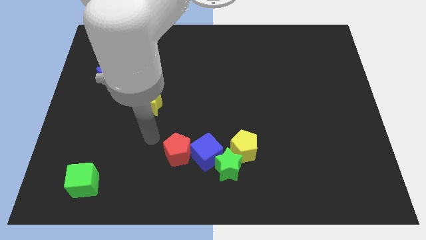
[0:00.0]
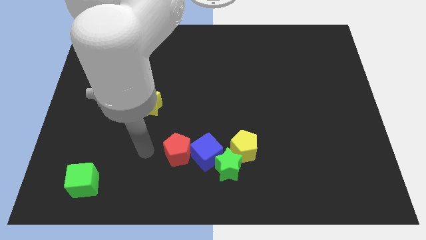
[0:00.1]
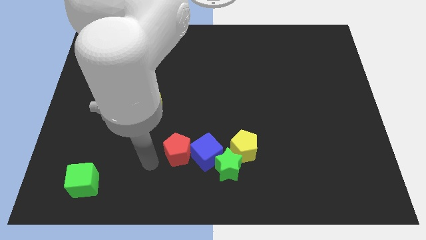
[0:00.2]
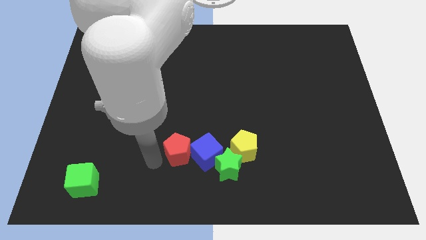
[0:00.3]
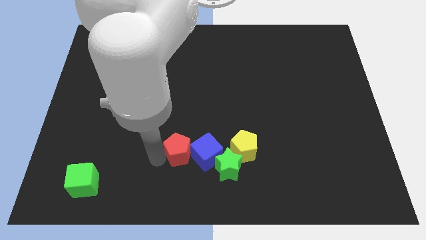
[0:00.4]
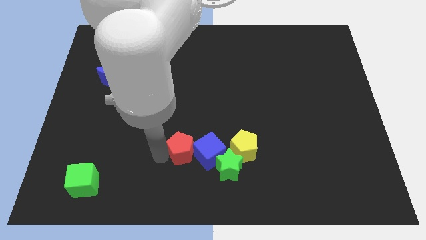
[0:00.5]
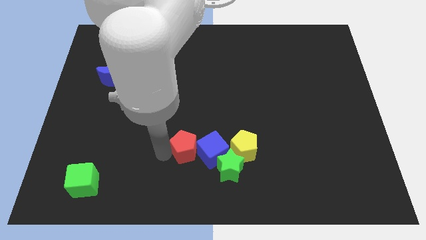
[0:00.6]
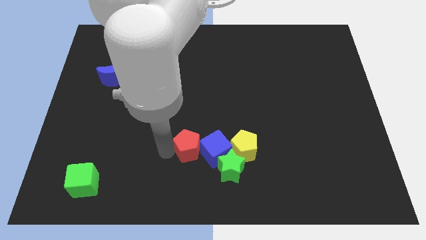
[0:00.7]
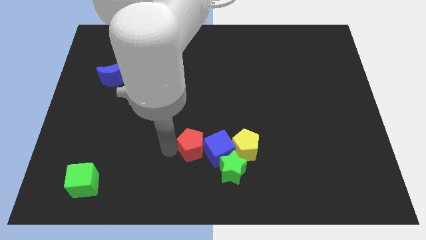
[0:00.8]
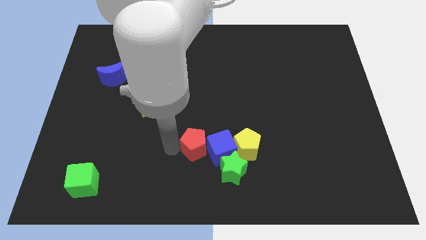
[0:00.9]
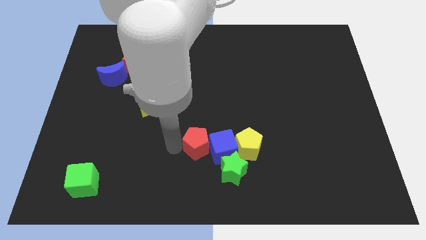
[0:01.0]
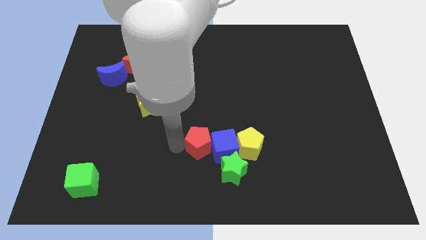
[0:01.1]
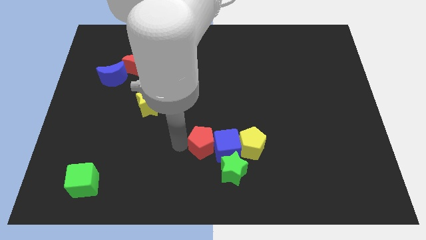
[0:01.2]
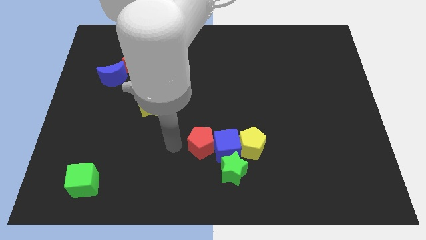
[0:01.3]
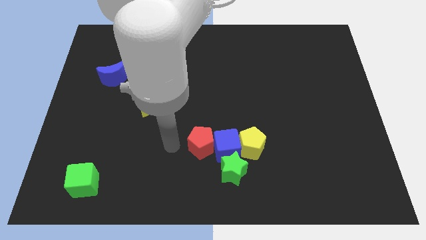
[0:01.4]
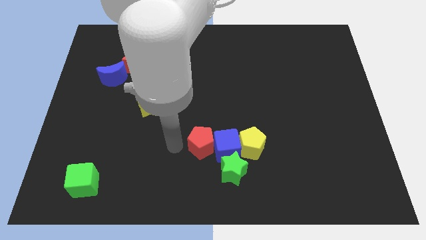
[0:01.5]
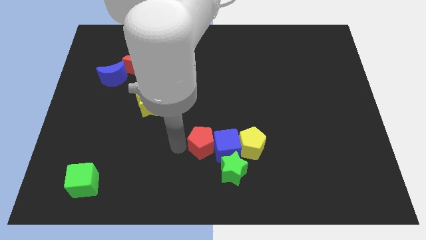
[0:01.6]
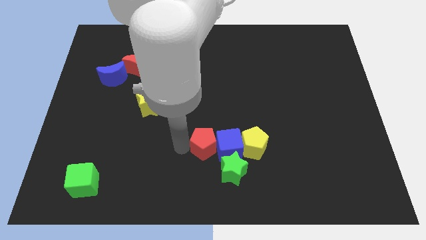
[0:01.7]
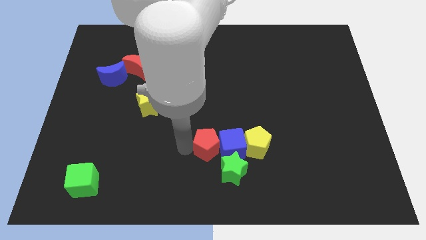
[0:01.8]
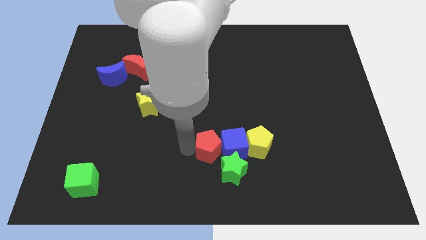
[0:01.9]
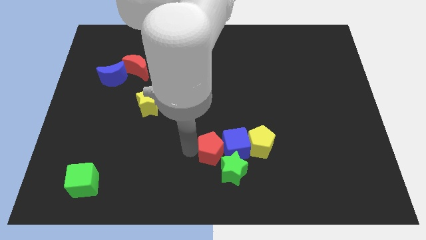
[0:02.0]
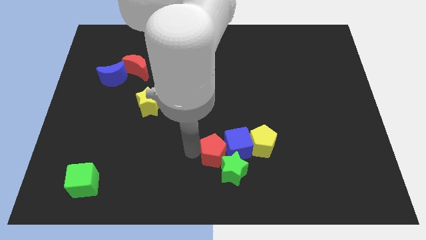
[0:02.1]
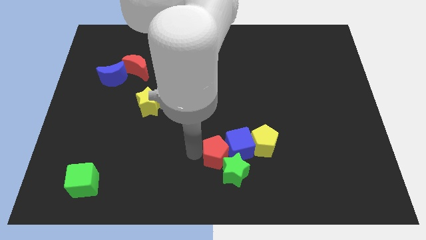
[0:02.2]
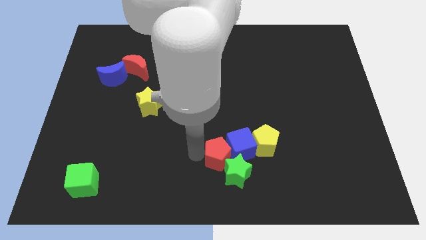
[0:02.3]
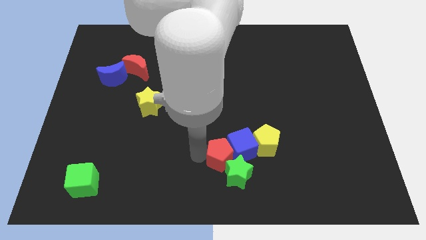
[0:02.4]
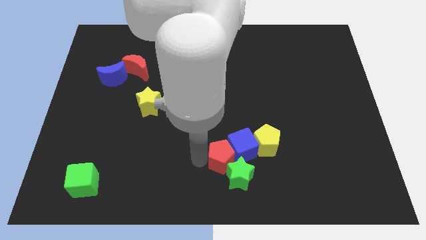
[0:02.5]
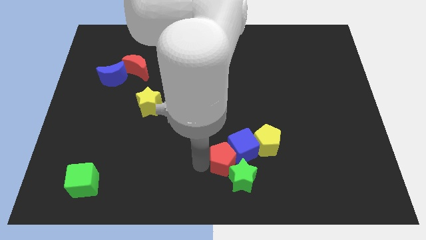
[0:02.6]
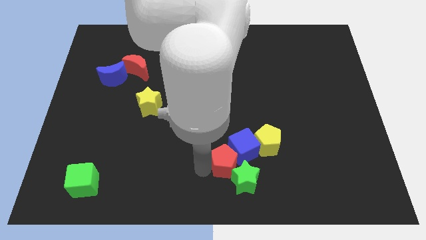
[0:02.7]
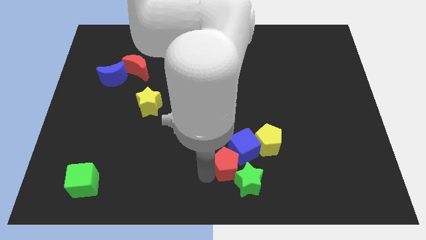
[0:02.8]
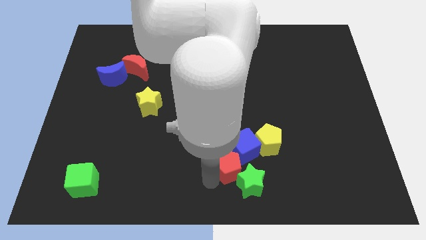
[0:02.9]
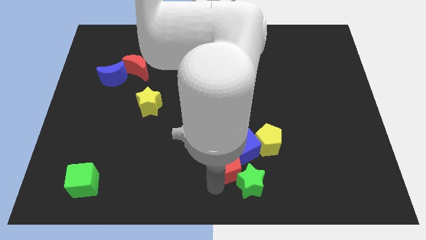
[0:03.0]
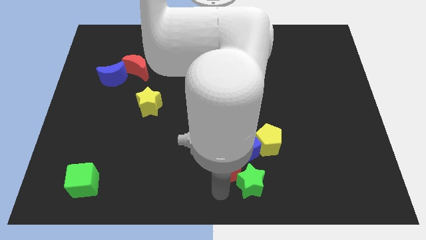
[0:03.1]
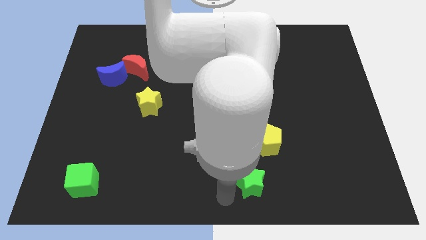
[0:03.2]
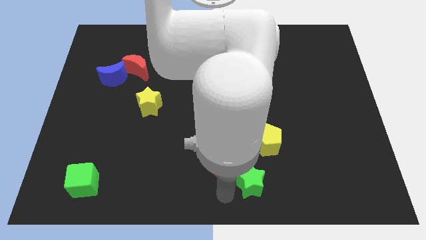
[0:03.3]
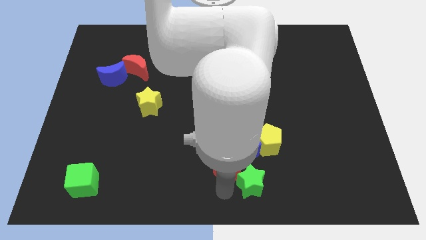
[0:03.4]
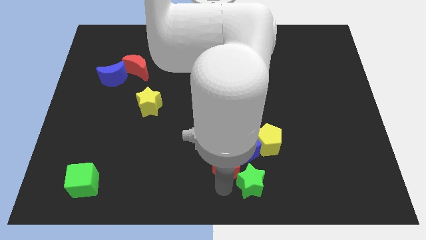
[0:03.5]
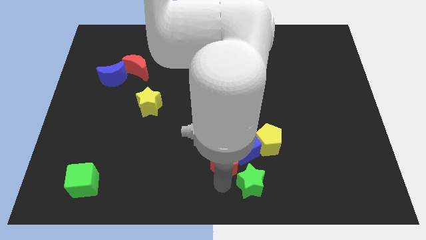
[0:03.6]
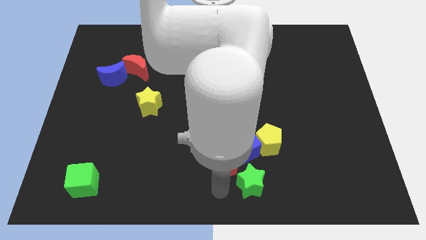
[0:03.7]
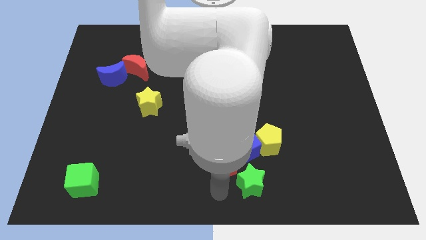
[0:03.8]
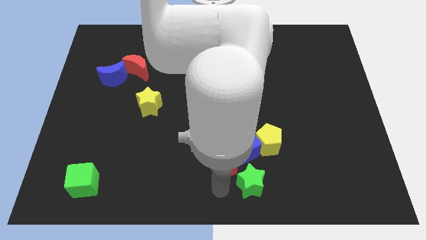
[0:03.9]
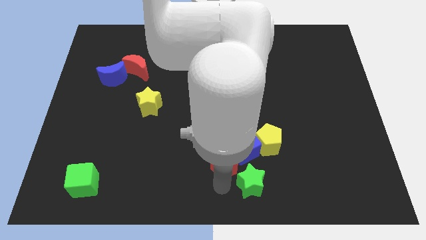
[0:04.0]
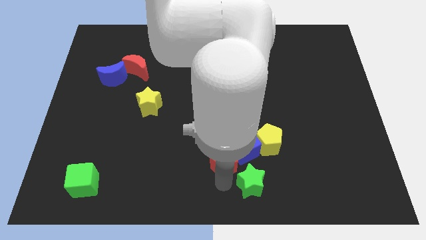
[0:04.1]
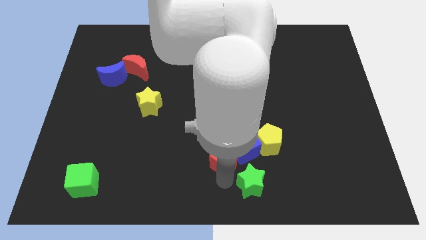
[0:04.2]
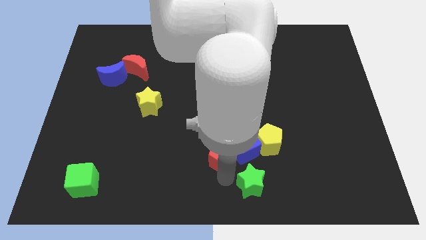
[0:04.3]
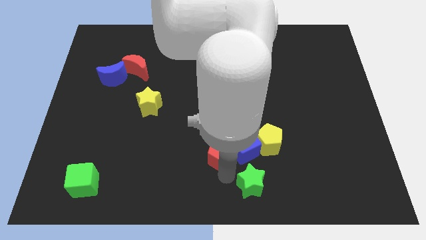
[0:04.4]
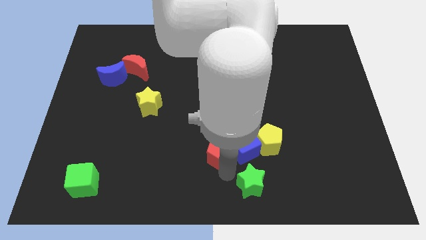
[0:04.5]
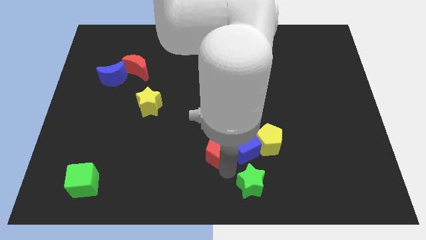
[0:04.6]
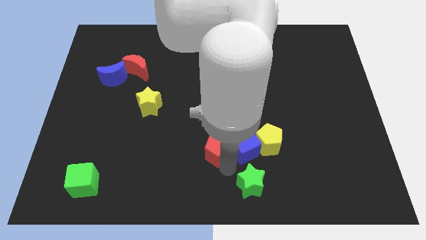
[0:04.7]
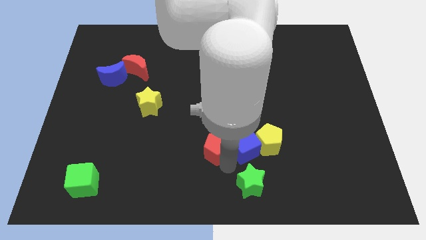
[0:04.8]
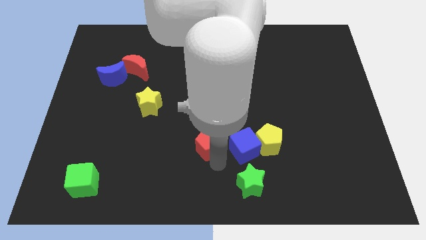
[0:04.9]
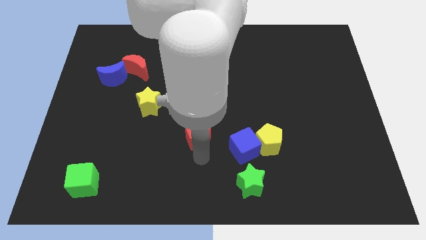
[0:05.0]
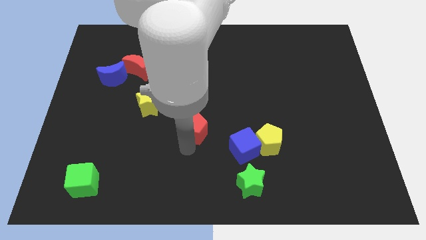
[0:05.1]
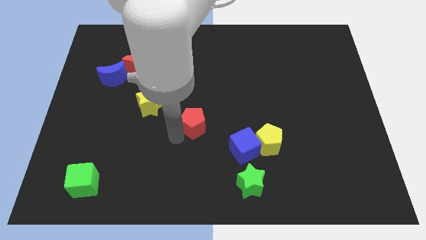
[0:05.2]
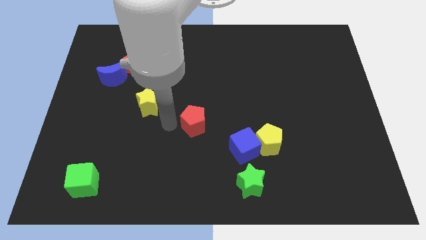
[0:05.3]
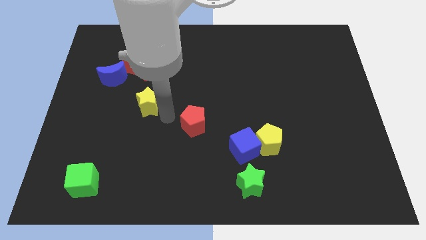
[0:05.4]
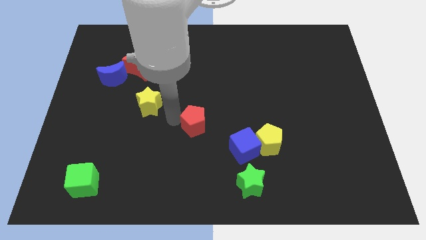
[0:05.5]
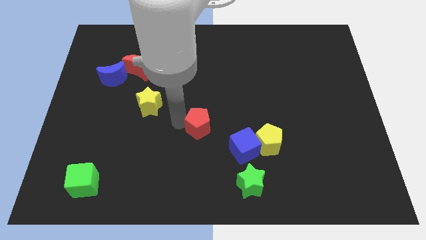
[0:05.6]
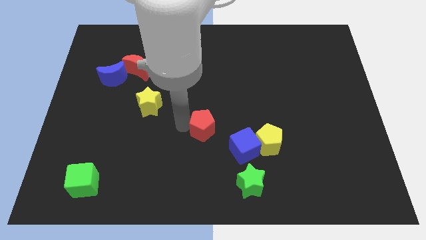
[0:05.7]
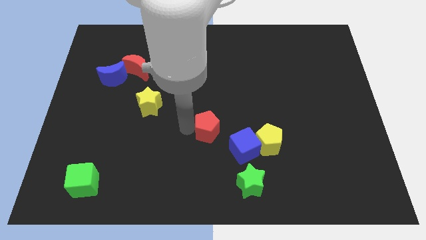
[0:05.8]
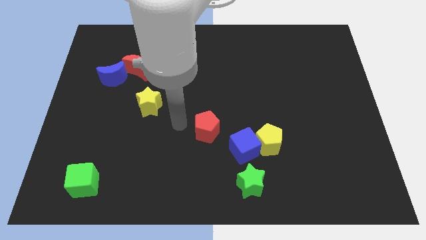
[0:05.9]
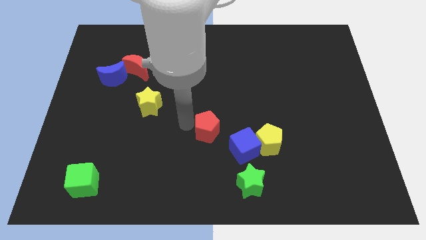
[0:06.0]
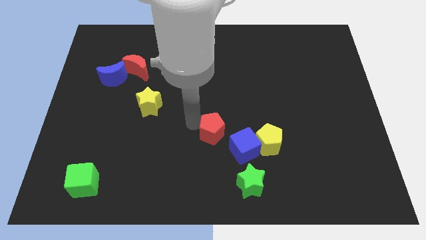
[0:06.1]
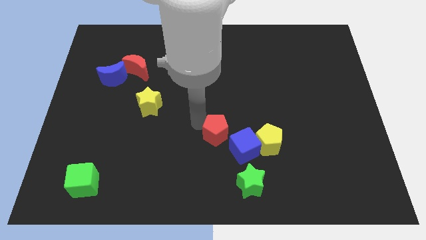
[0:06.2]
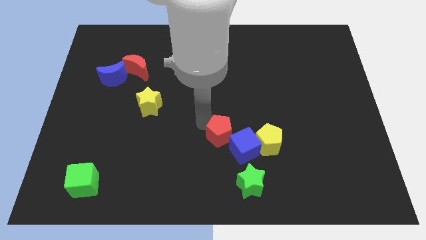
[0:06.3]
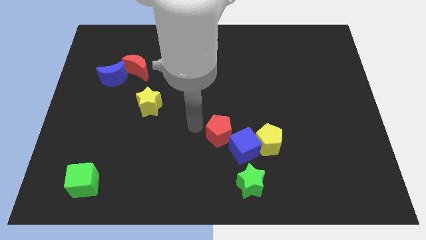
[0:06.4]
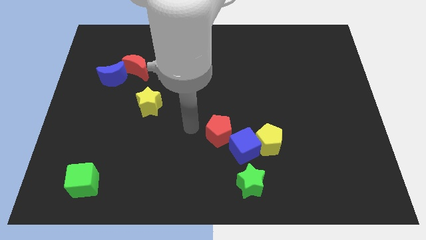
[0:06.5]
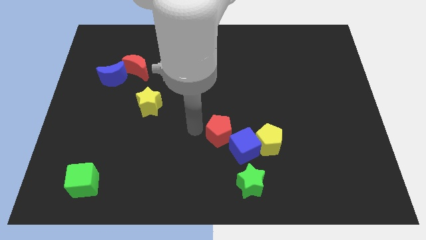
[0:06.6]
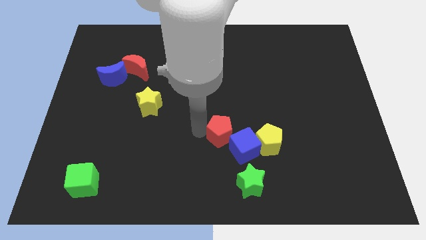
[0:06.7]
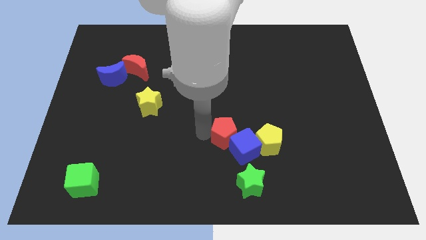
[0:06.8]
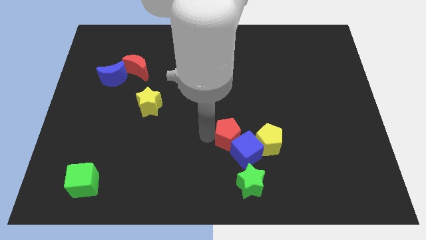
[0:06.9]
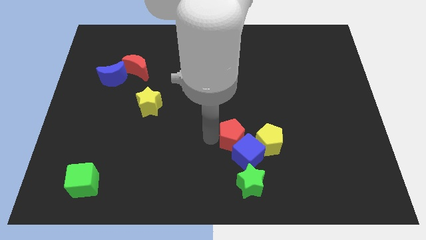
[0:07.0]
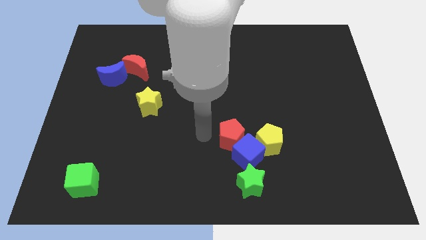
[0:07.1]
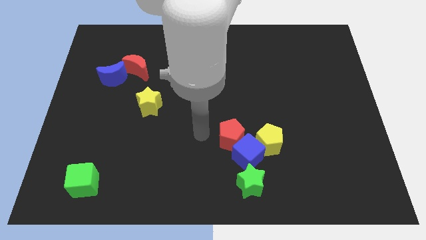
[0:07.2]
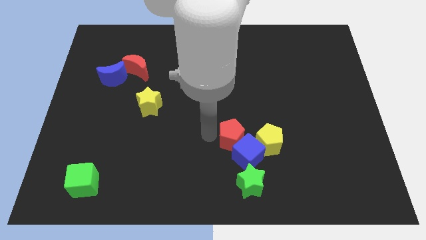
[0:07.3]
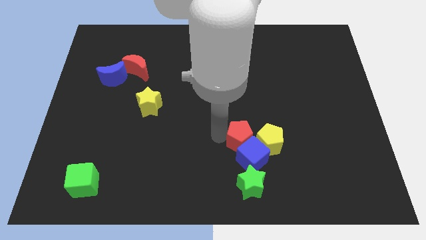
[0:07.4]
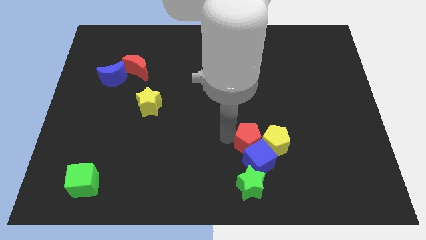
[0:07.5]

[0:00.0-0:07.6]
push the red pentagon towards the yellow pentagon

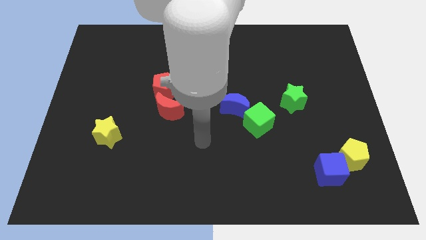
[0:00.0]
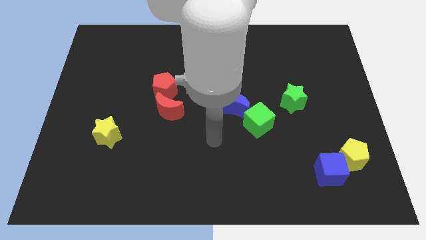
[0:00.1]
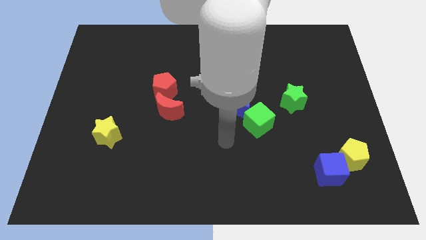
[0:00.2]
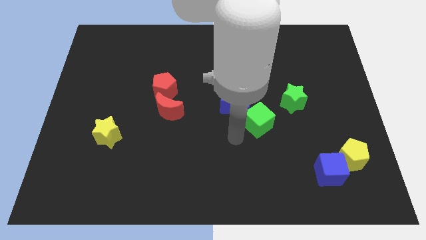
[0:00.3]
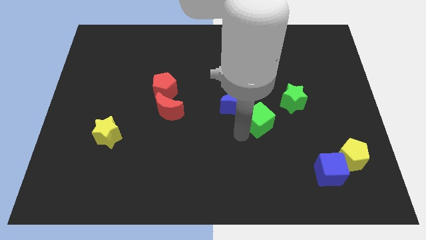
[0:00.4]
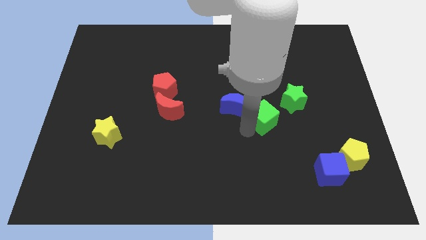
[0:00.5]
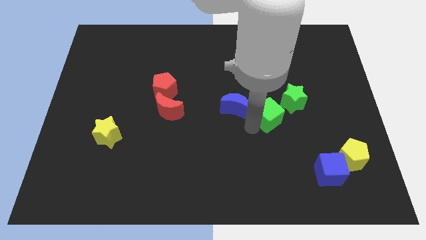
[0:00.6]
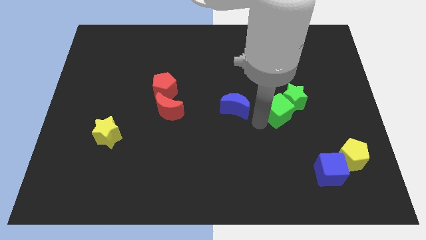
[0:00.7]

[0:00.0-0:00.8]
put the green cube next to the green star

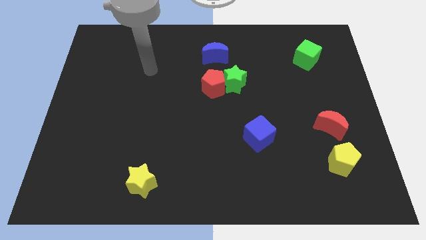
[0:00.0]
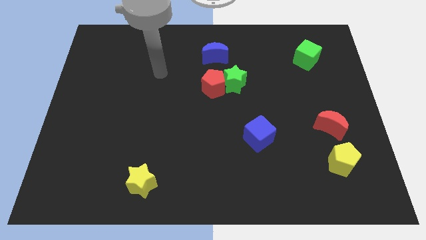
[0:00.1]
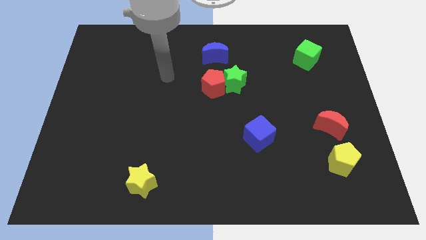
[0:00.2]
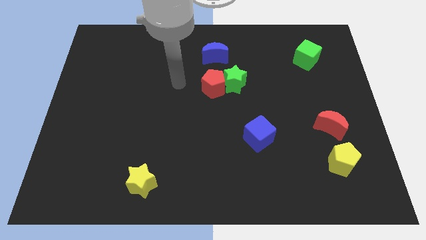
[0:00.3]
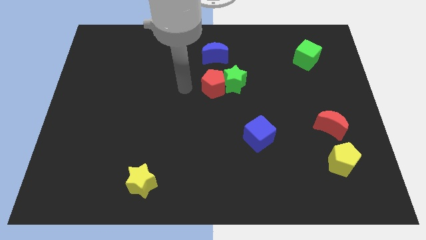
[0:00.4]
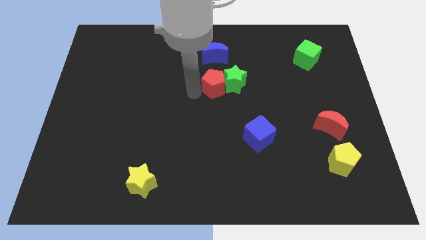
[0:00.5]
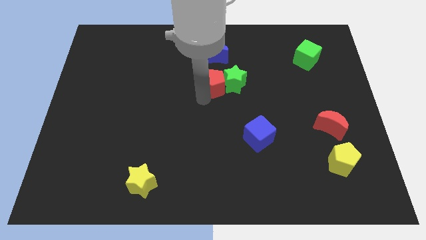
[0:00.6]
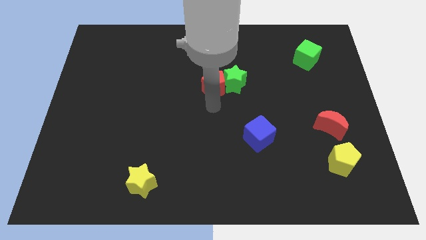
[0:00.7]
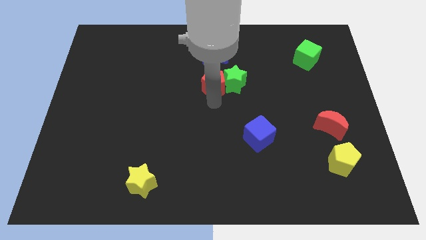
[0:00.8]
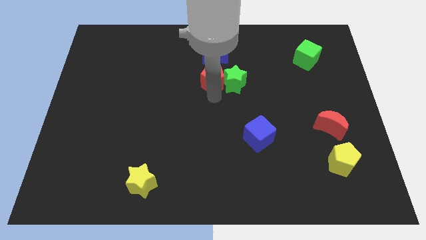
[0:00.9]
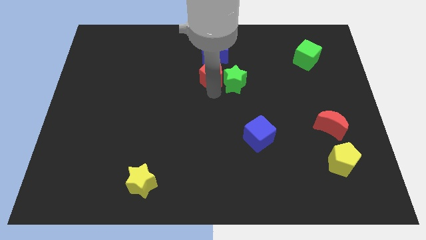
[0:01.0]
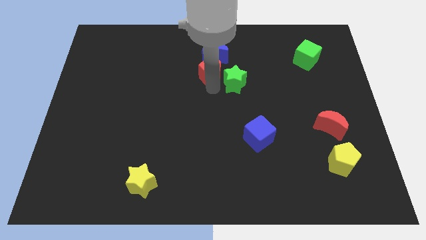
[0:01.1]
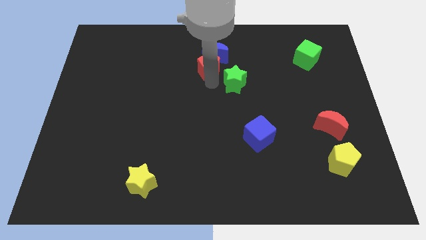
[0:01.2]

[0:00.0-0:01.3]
push the red pentagon to the blue moon
